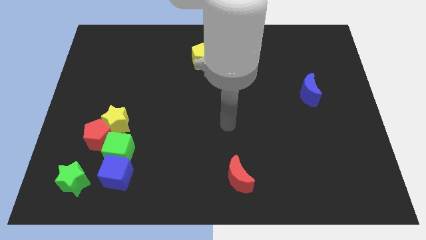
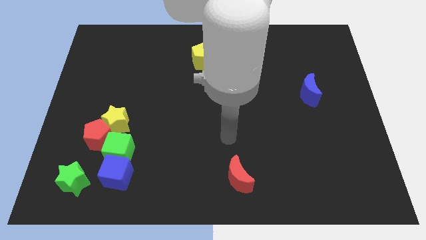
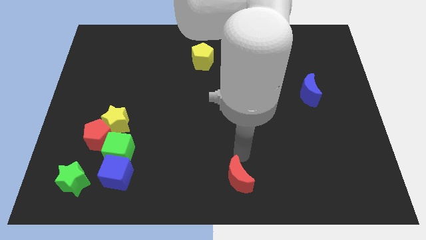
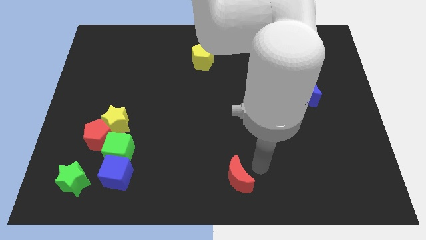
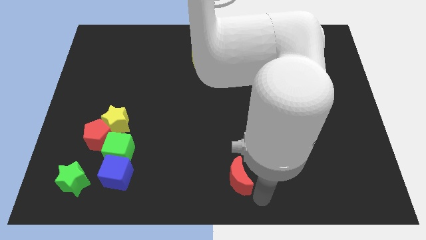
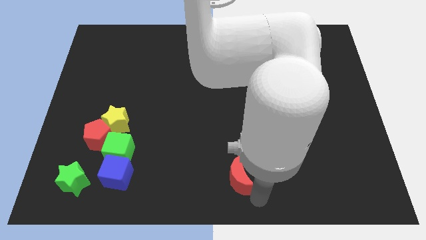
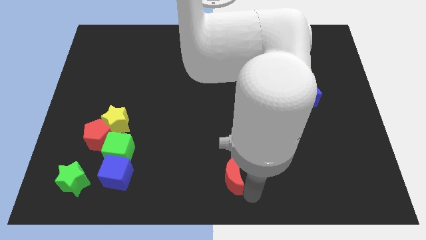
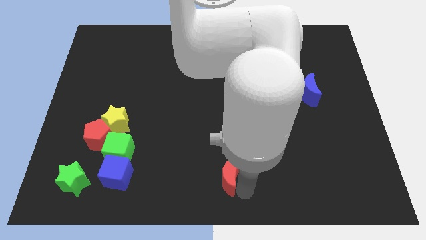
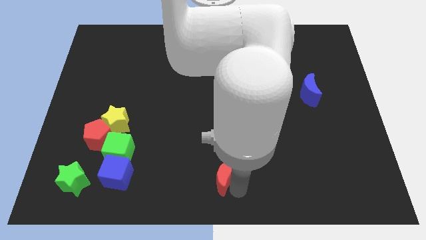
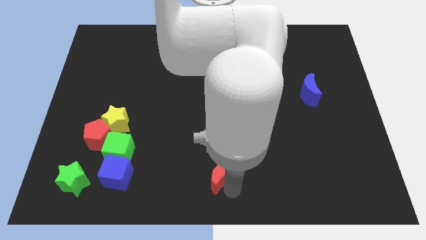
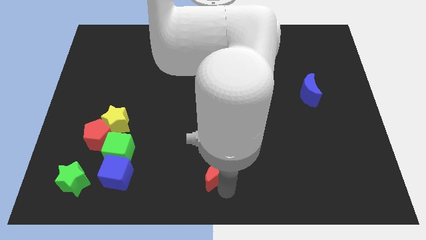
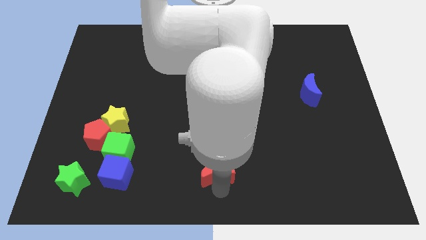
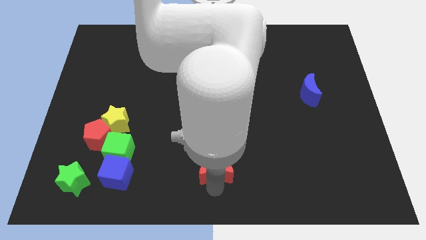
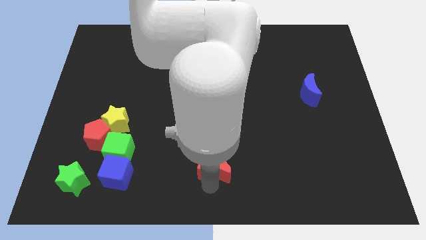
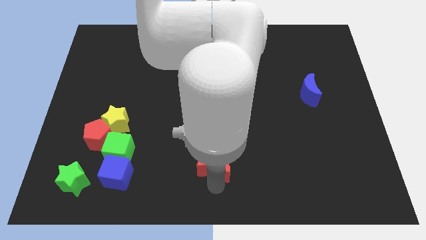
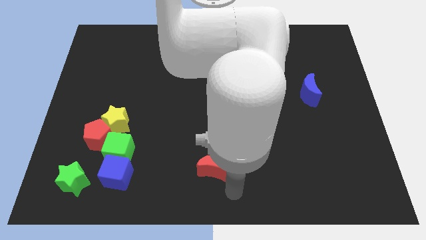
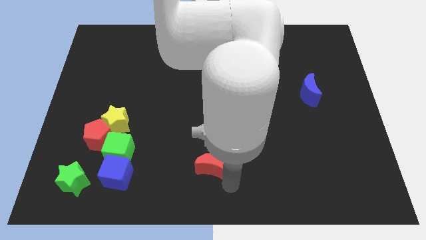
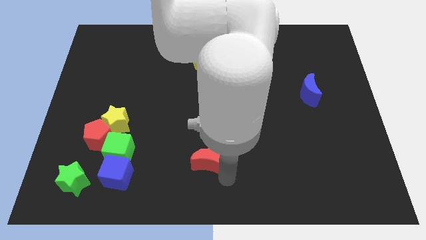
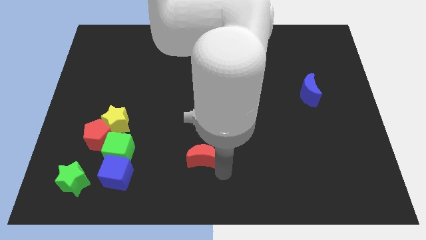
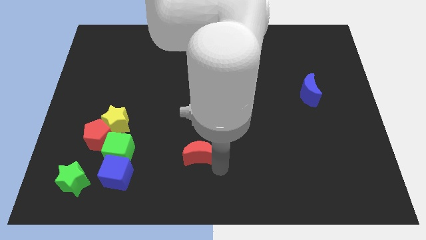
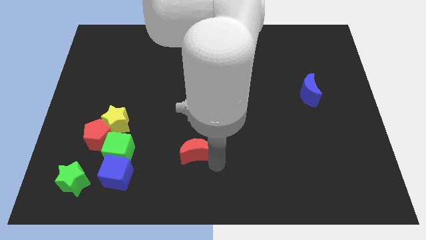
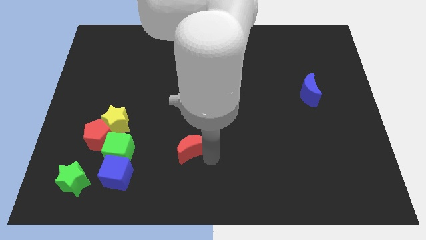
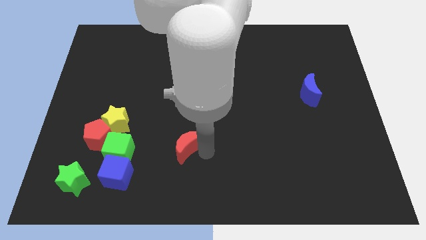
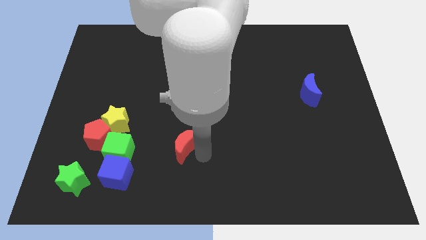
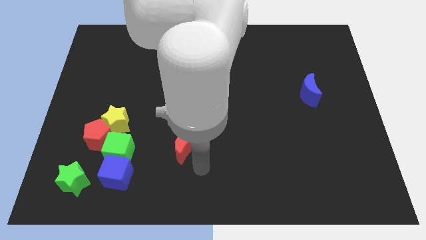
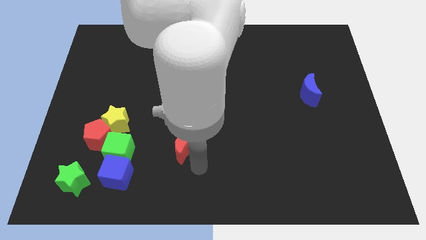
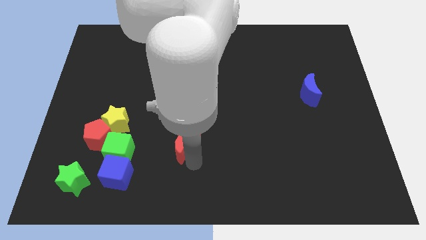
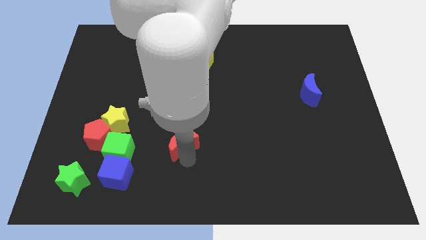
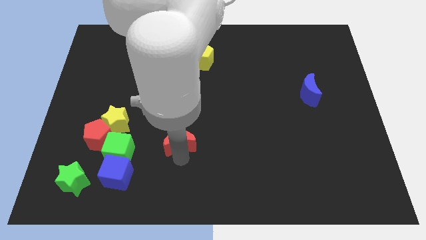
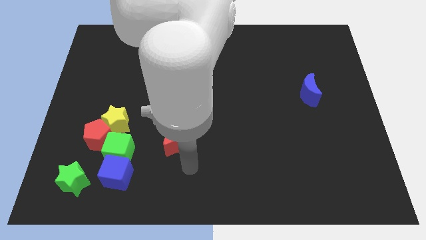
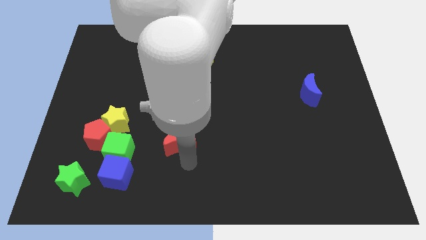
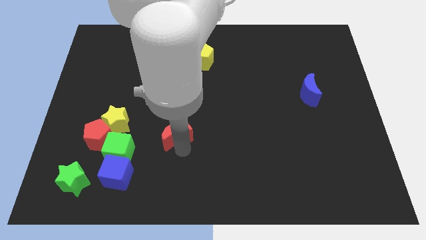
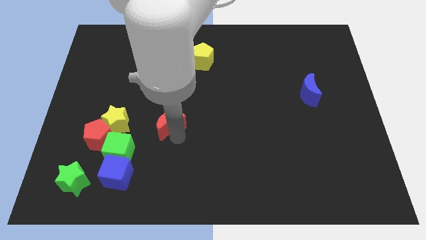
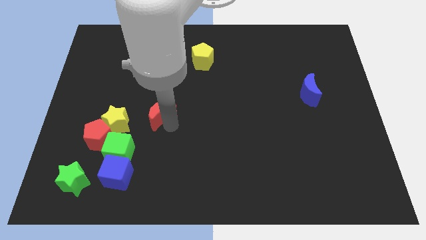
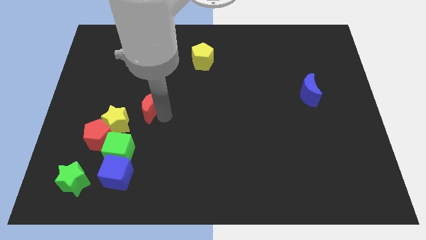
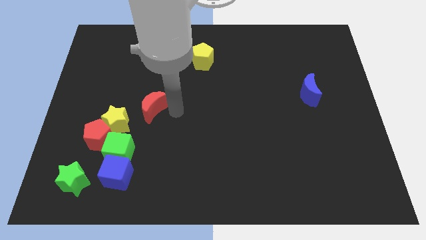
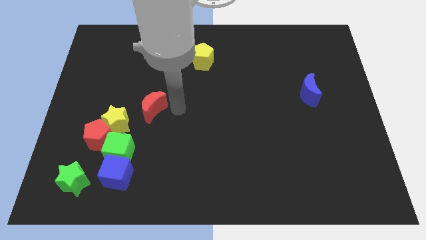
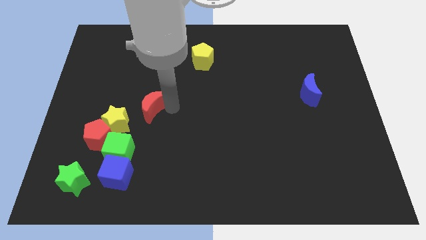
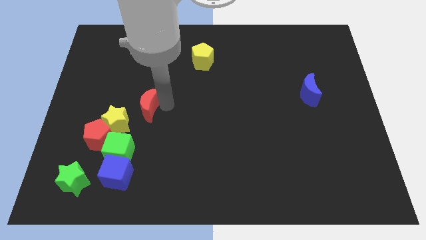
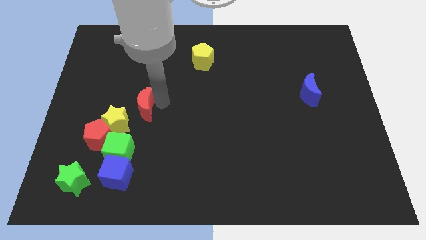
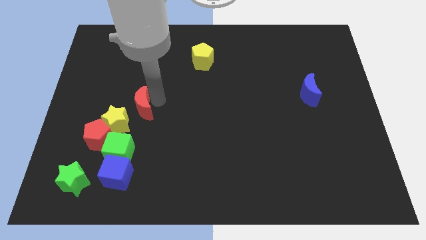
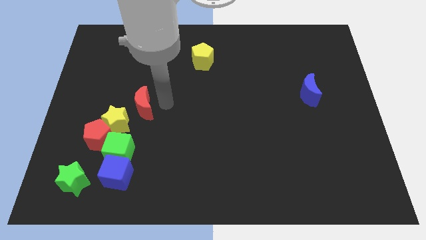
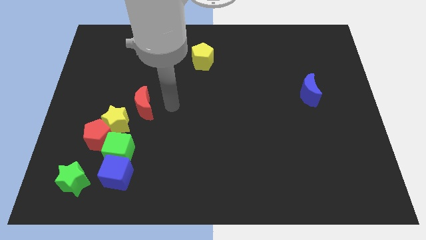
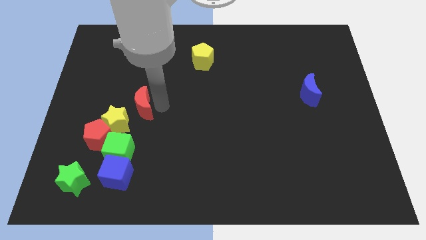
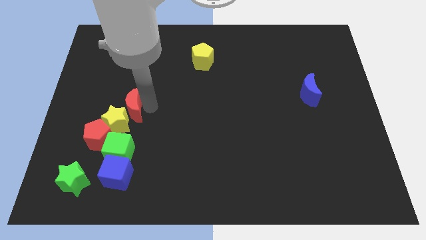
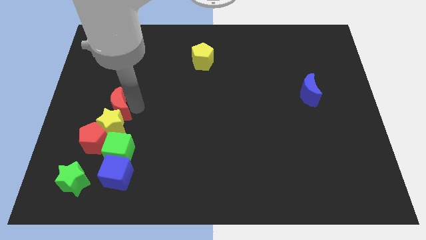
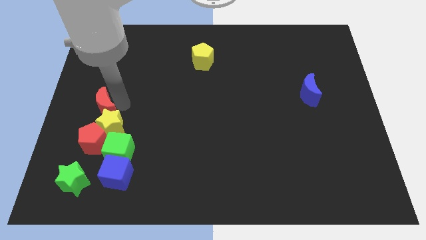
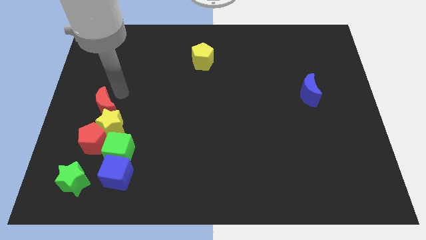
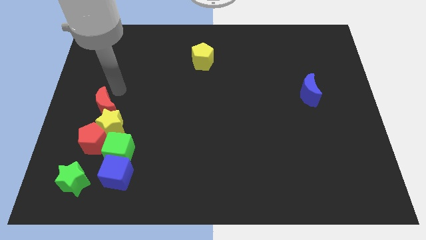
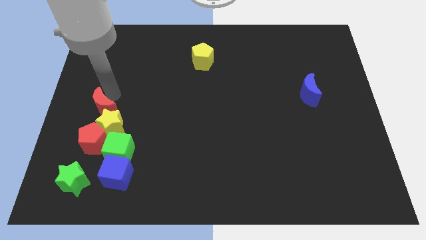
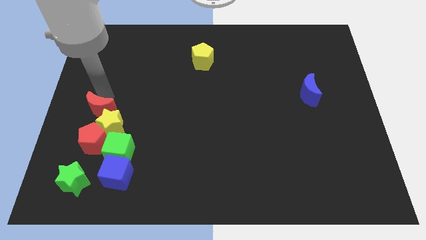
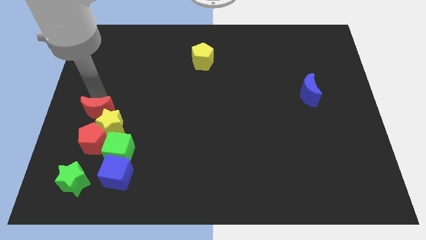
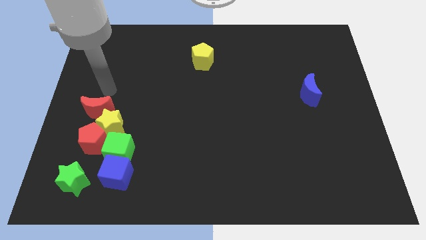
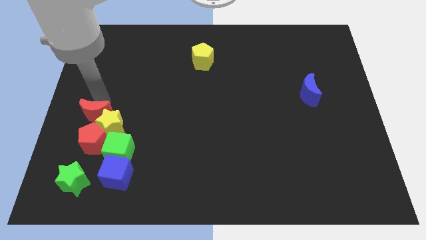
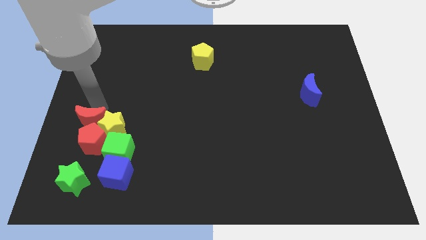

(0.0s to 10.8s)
push the red moon above the green star

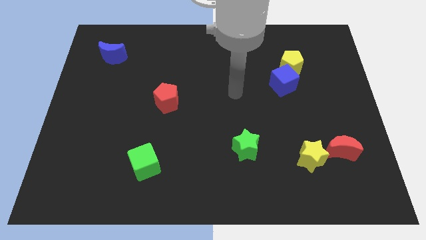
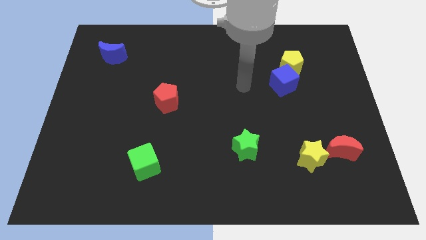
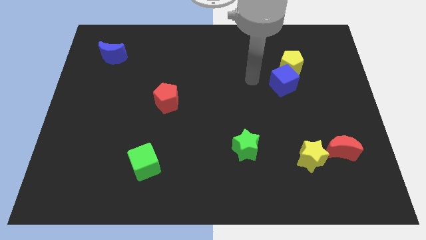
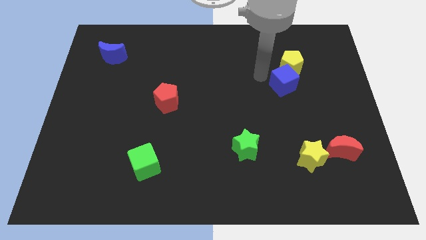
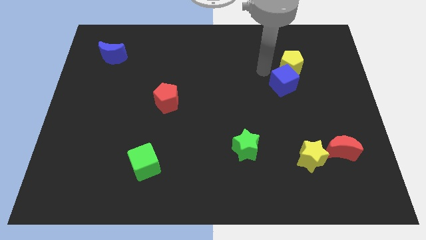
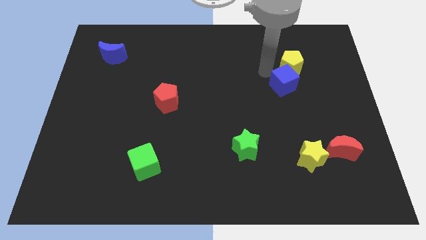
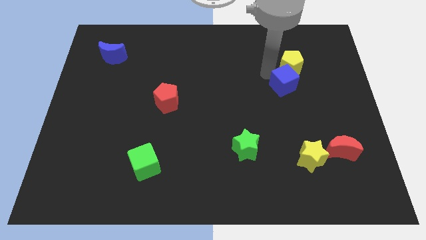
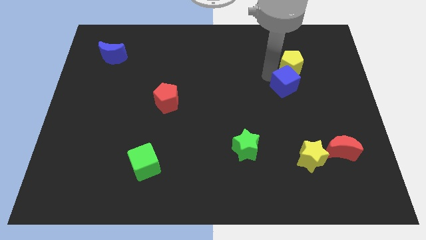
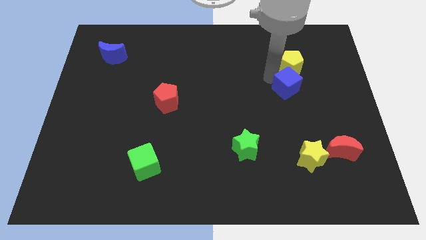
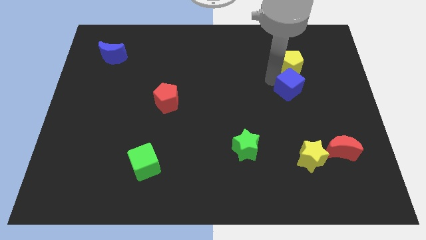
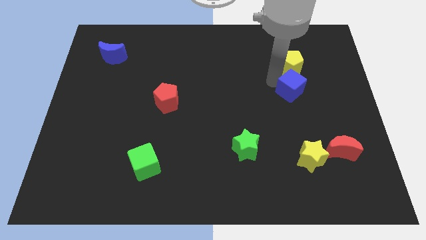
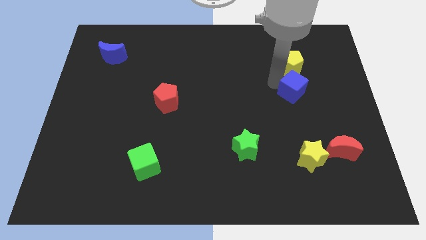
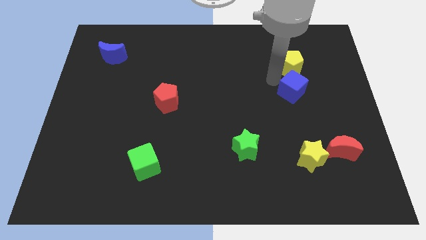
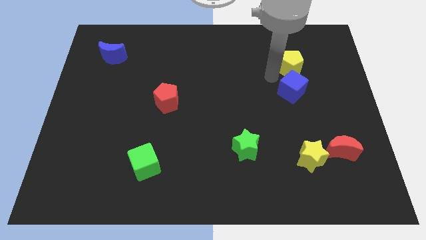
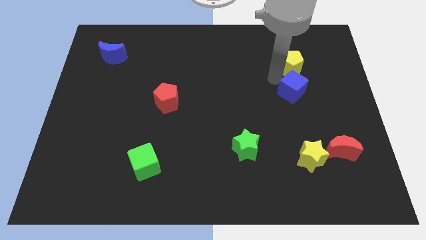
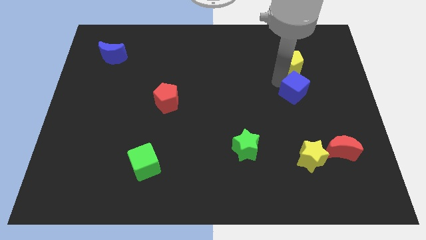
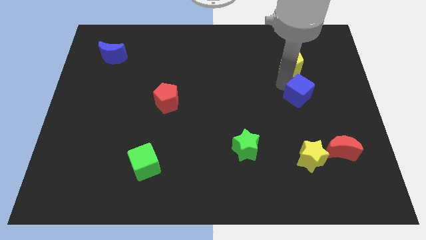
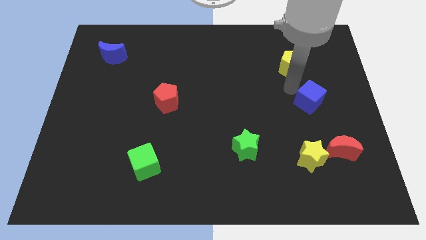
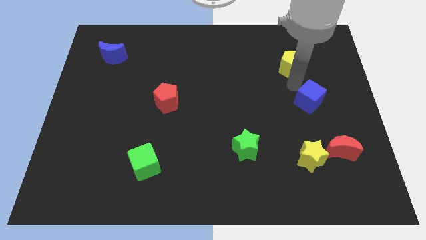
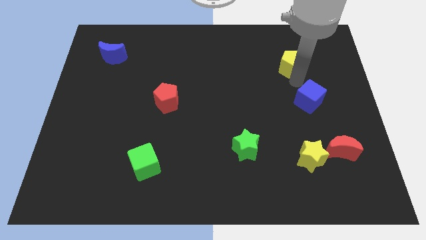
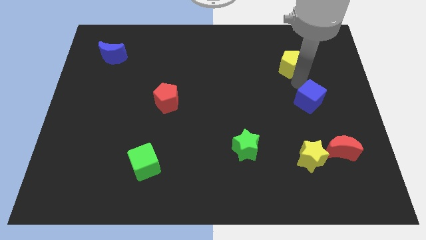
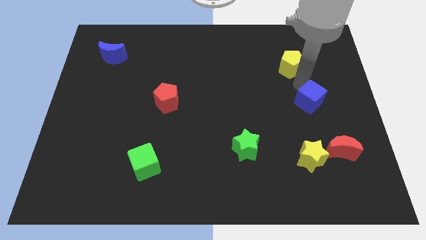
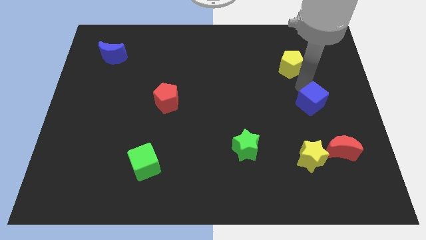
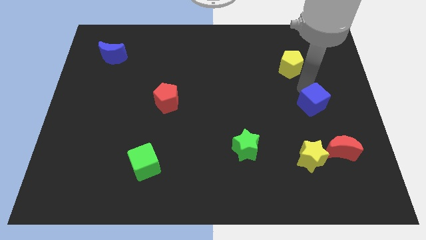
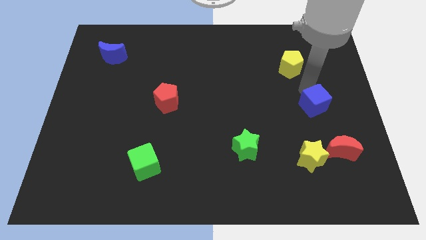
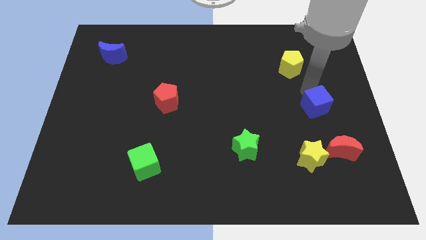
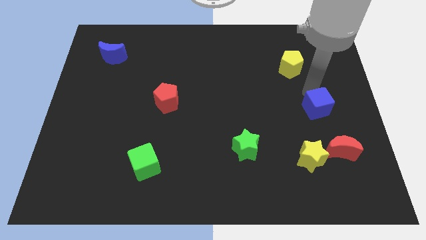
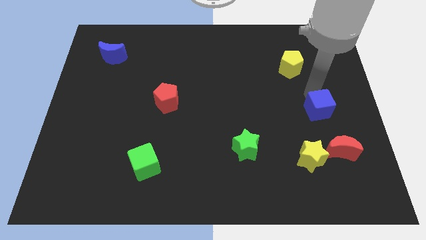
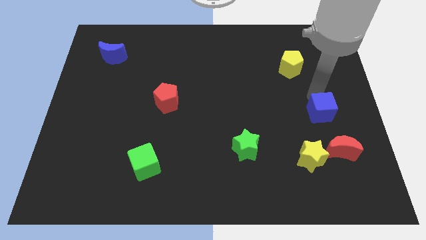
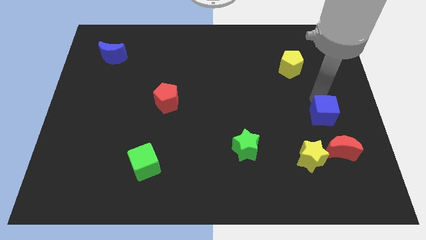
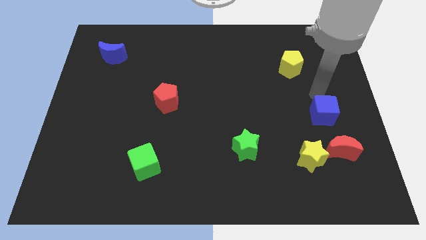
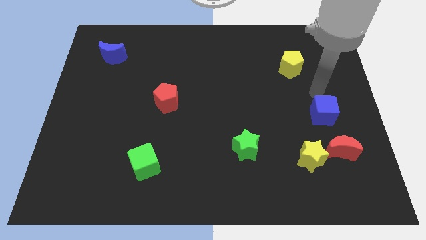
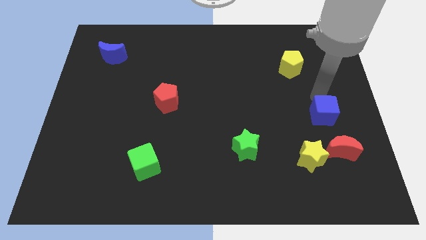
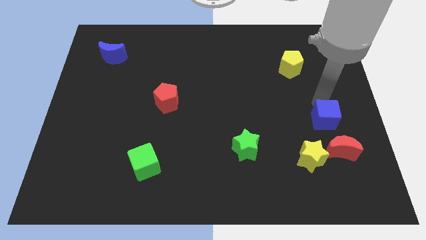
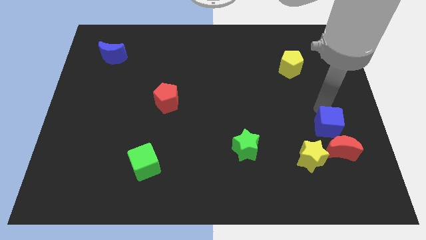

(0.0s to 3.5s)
move the blue cube diagonally up and to the right of the yellow star
